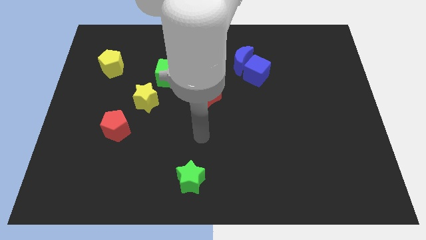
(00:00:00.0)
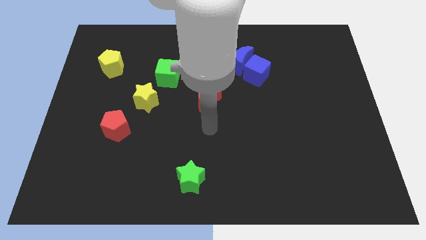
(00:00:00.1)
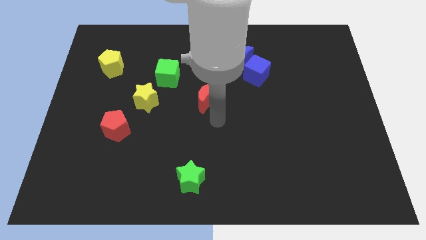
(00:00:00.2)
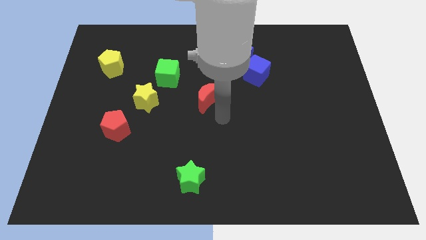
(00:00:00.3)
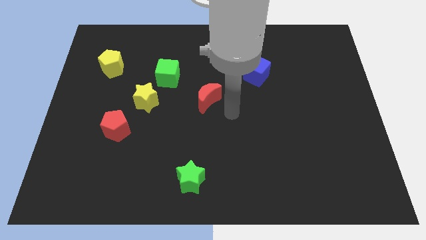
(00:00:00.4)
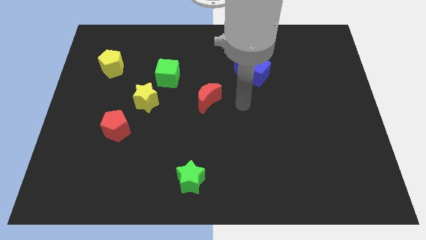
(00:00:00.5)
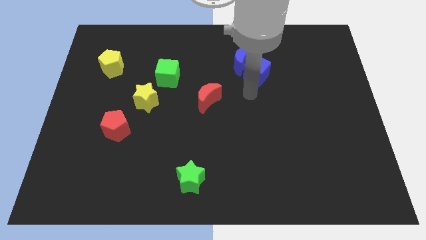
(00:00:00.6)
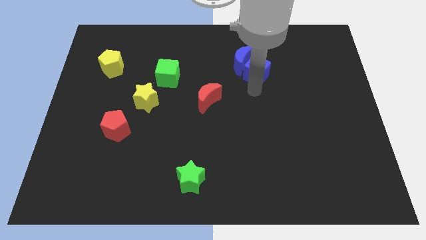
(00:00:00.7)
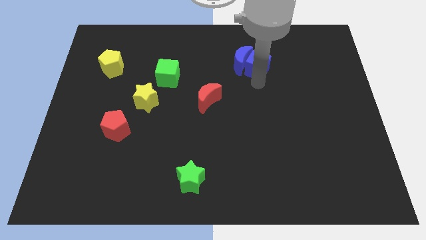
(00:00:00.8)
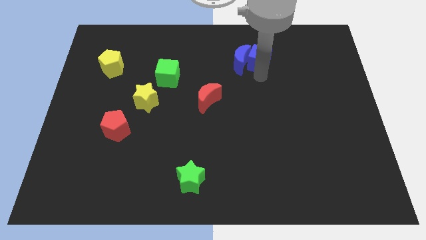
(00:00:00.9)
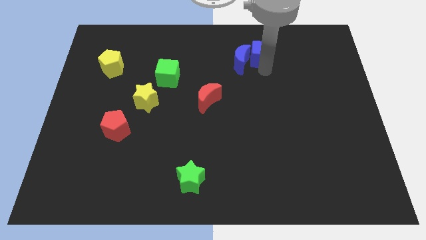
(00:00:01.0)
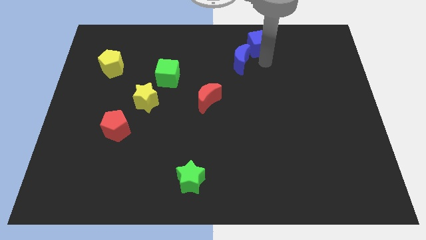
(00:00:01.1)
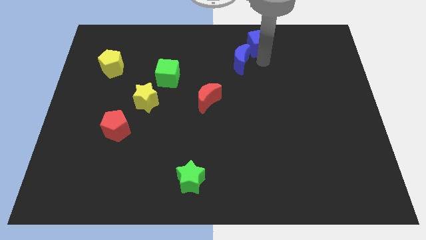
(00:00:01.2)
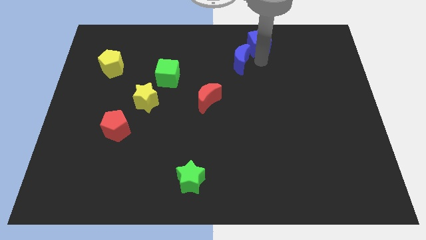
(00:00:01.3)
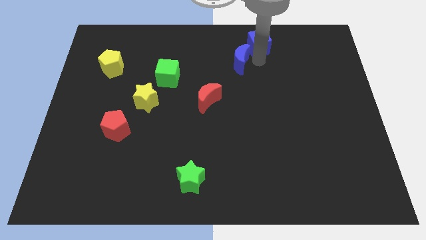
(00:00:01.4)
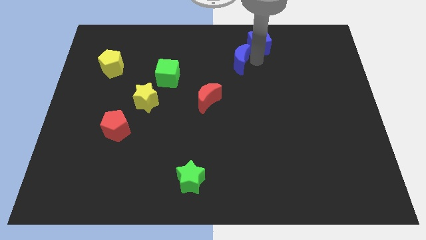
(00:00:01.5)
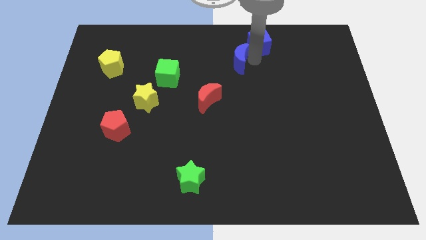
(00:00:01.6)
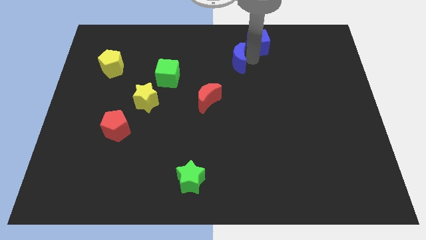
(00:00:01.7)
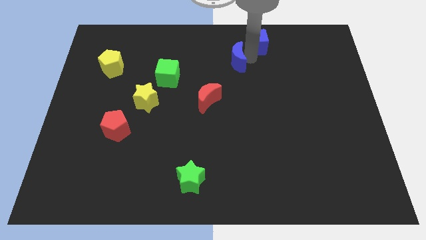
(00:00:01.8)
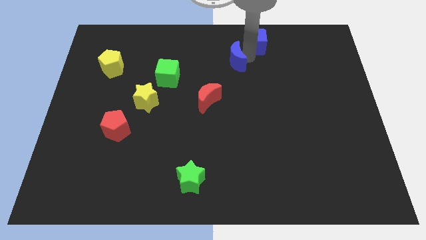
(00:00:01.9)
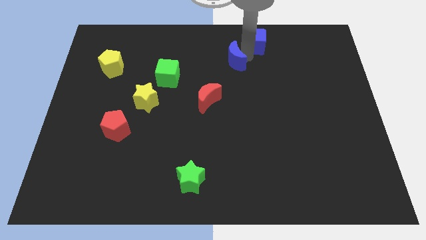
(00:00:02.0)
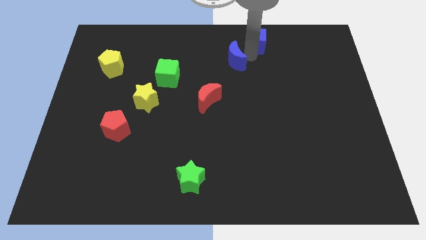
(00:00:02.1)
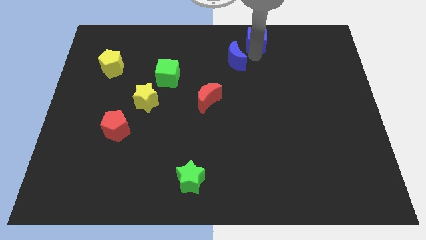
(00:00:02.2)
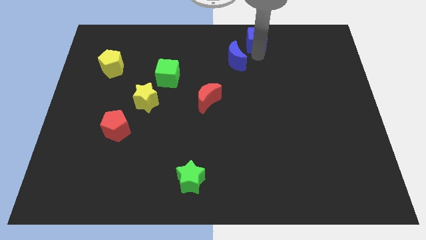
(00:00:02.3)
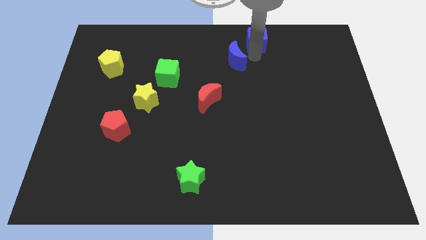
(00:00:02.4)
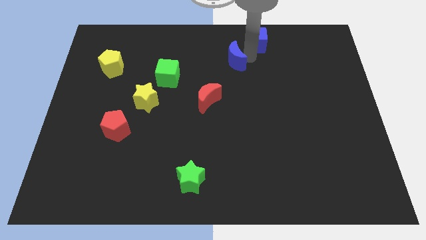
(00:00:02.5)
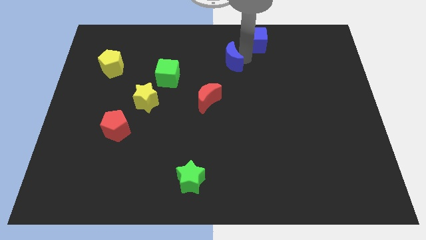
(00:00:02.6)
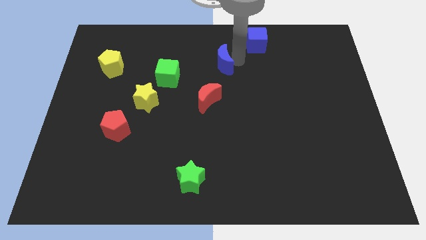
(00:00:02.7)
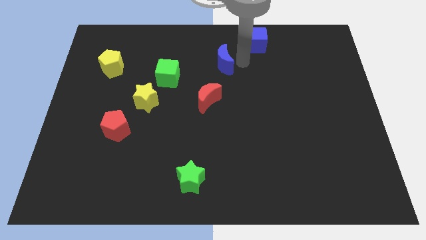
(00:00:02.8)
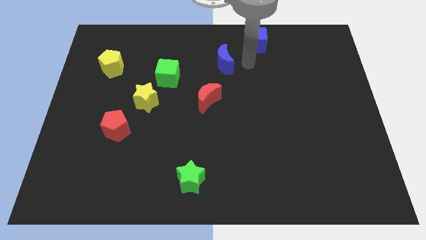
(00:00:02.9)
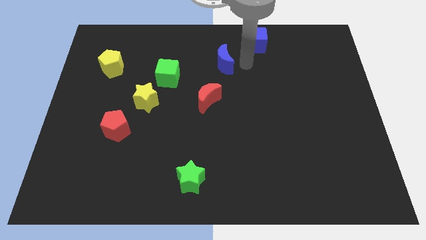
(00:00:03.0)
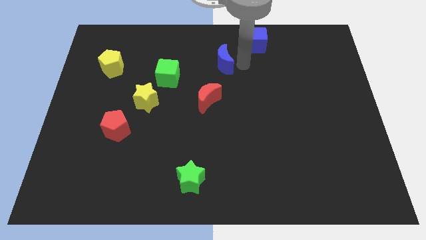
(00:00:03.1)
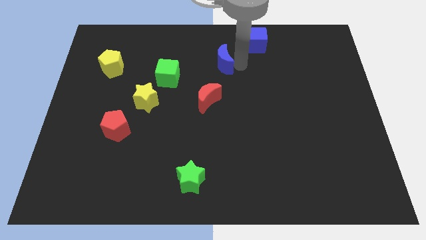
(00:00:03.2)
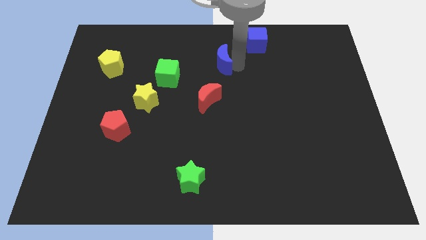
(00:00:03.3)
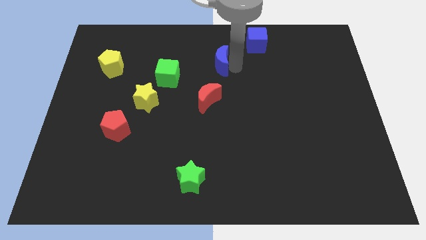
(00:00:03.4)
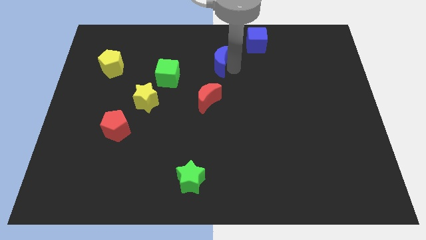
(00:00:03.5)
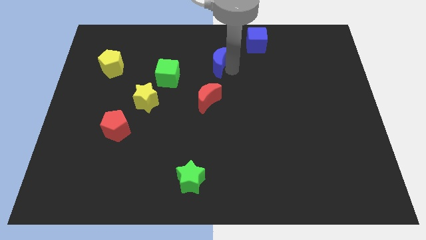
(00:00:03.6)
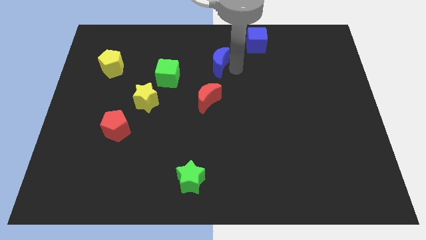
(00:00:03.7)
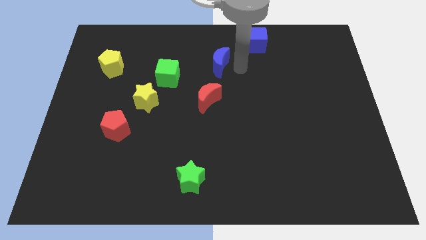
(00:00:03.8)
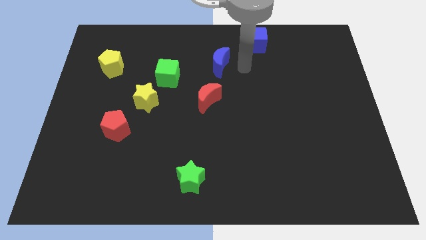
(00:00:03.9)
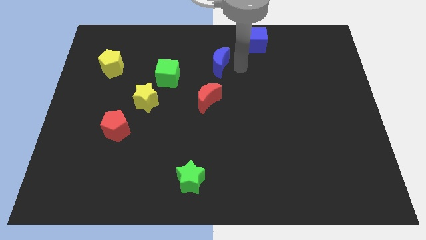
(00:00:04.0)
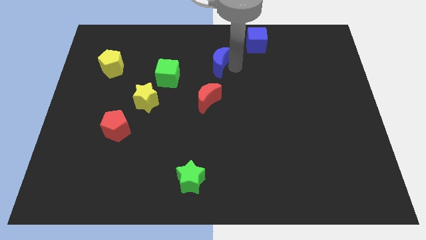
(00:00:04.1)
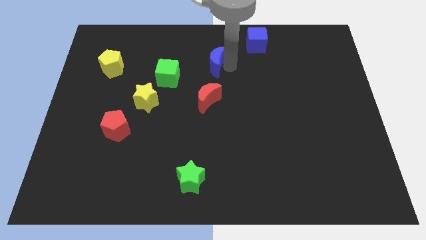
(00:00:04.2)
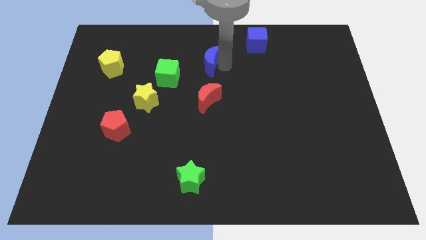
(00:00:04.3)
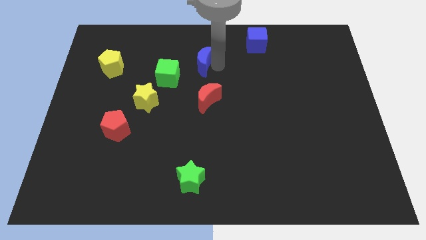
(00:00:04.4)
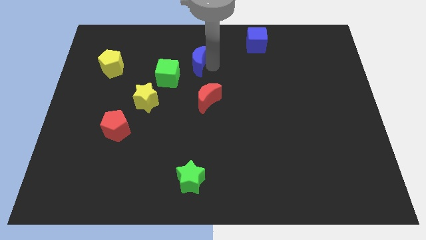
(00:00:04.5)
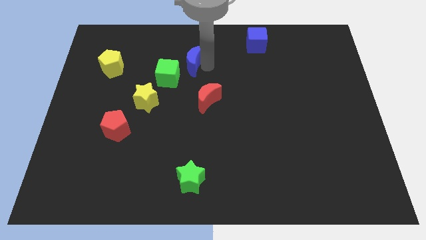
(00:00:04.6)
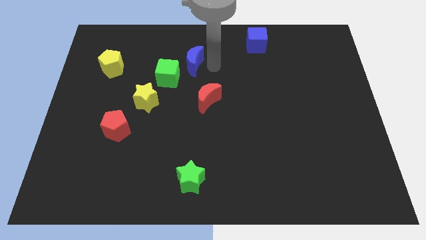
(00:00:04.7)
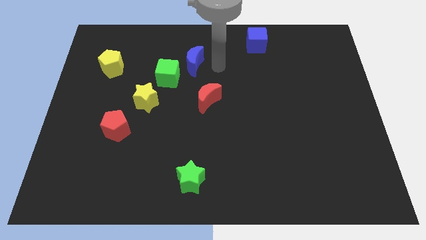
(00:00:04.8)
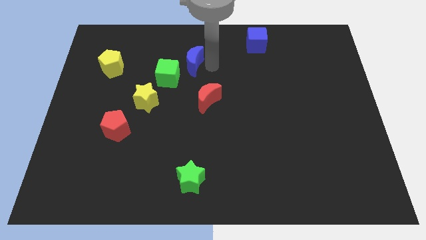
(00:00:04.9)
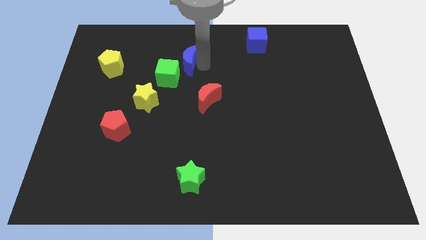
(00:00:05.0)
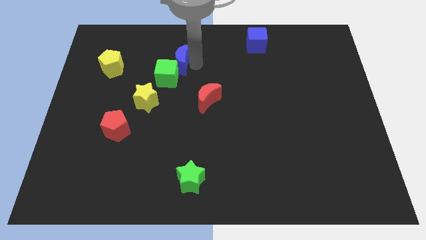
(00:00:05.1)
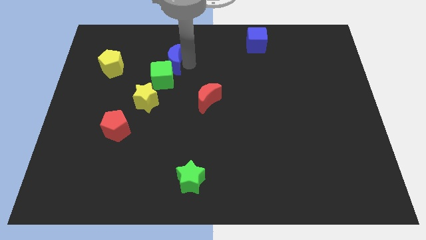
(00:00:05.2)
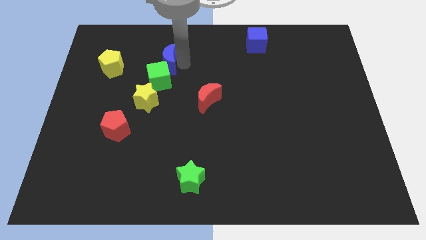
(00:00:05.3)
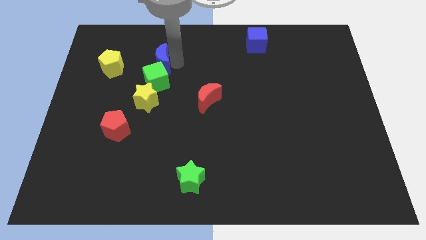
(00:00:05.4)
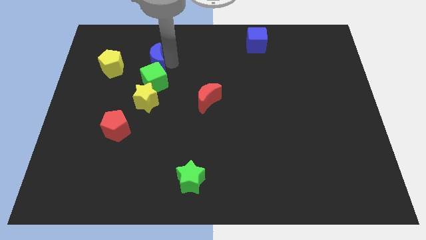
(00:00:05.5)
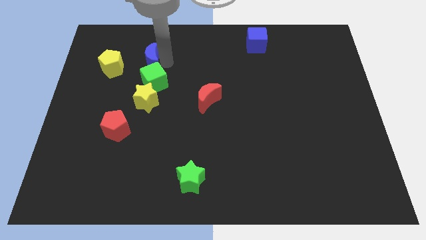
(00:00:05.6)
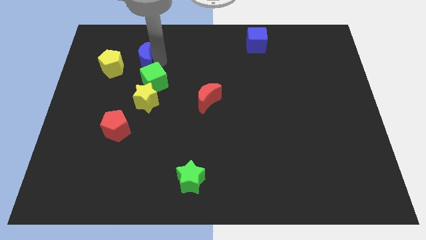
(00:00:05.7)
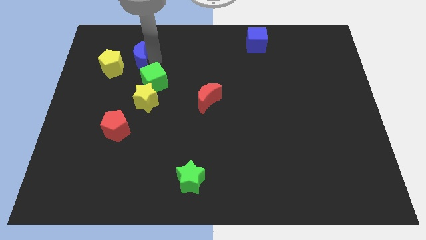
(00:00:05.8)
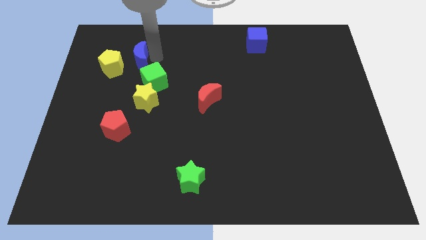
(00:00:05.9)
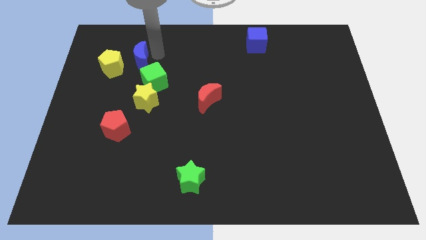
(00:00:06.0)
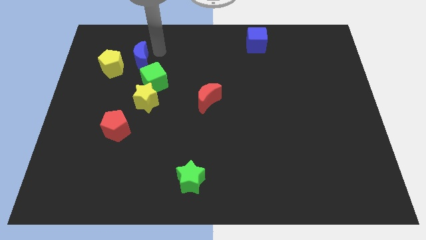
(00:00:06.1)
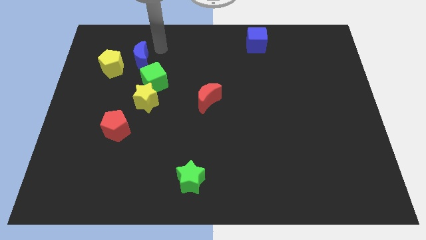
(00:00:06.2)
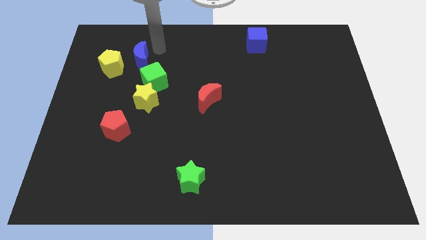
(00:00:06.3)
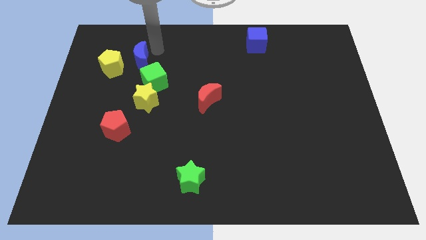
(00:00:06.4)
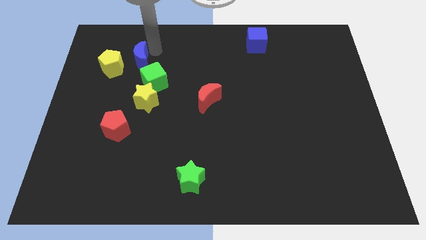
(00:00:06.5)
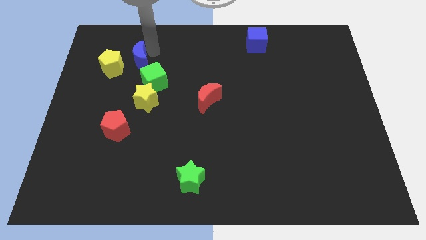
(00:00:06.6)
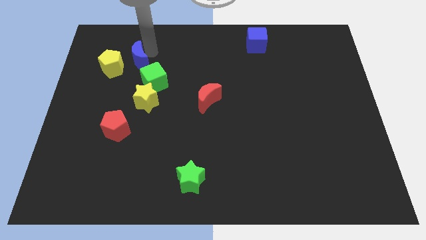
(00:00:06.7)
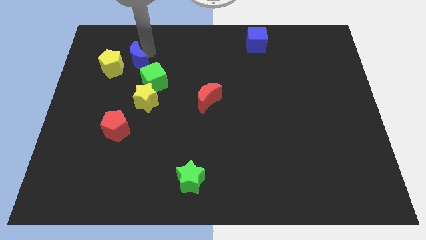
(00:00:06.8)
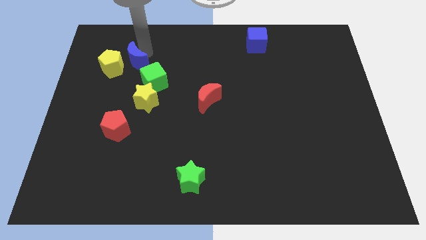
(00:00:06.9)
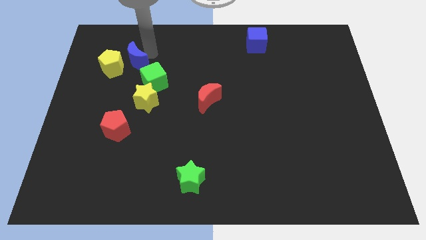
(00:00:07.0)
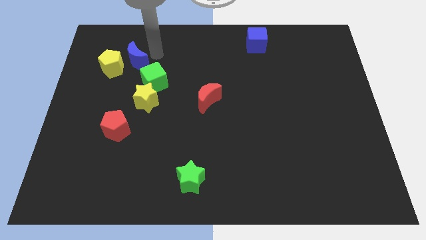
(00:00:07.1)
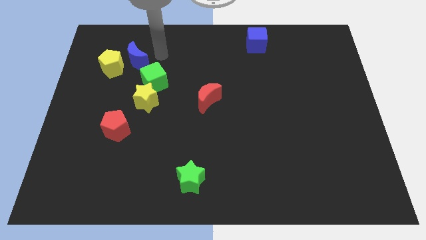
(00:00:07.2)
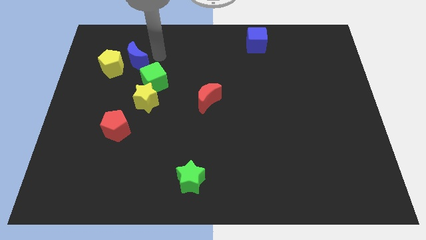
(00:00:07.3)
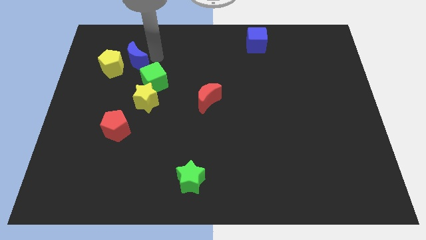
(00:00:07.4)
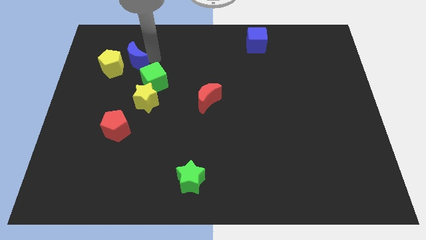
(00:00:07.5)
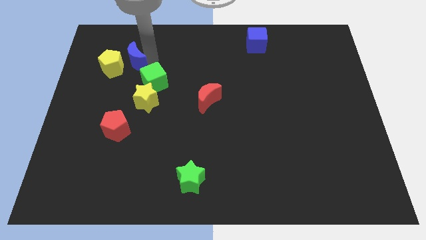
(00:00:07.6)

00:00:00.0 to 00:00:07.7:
push the blue moon towards the yellow pentagon
